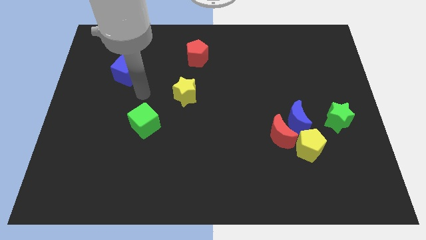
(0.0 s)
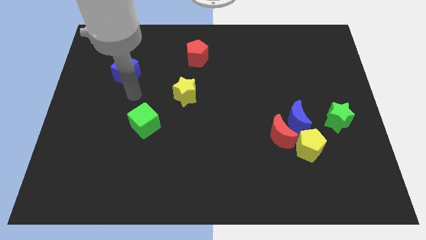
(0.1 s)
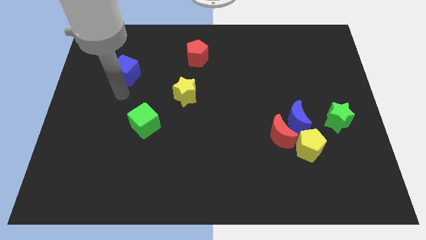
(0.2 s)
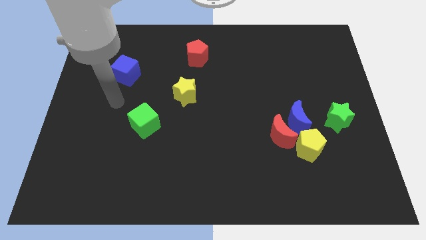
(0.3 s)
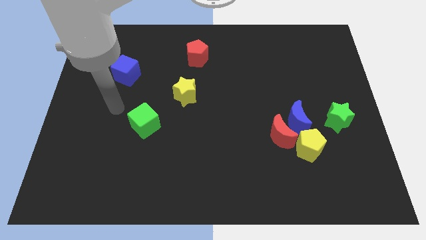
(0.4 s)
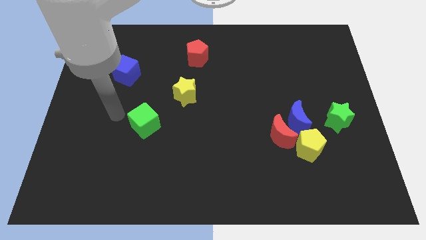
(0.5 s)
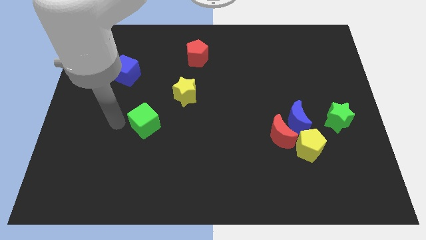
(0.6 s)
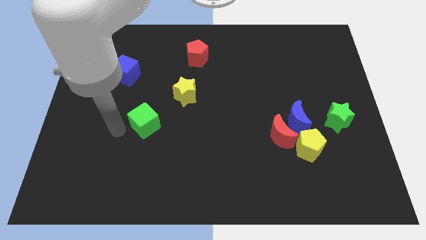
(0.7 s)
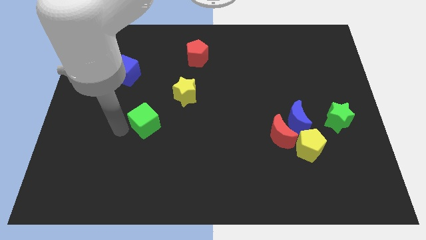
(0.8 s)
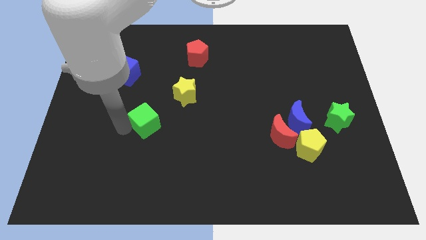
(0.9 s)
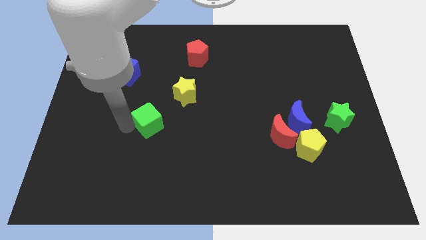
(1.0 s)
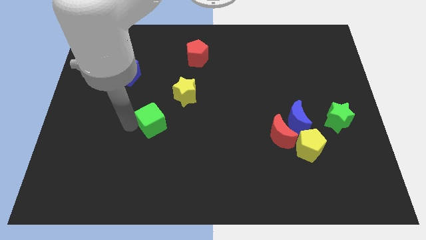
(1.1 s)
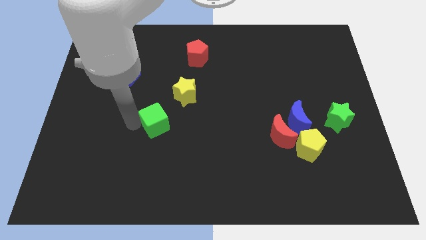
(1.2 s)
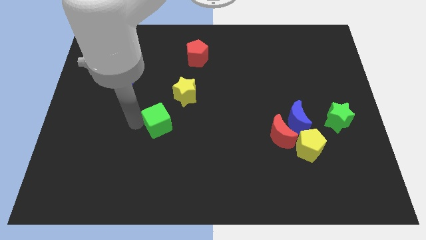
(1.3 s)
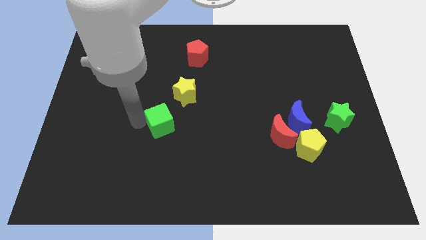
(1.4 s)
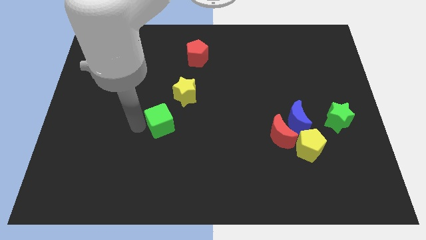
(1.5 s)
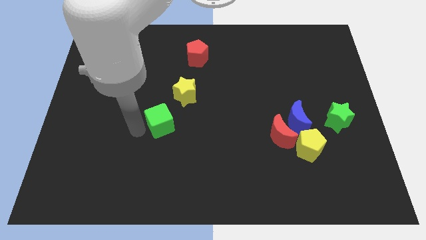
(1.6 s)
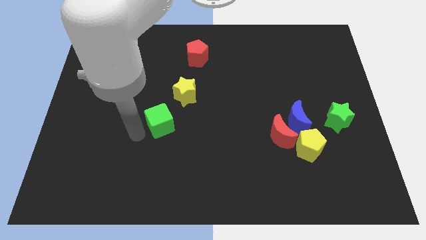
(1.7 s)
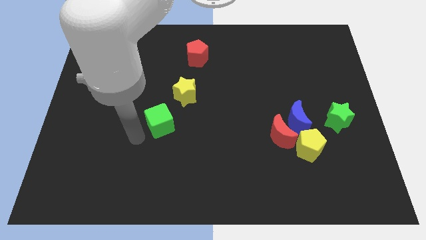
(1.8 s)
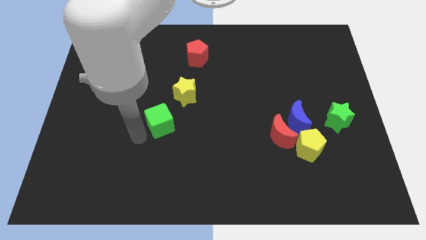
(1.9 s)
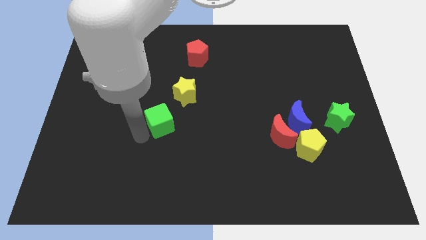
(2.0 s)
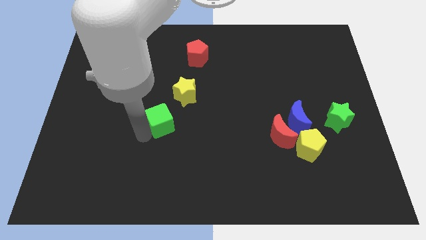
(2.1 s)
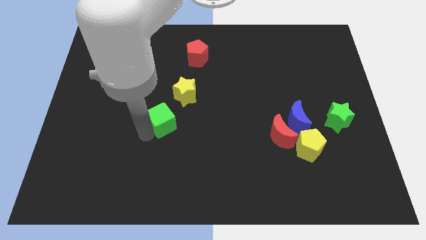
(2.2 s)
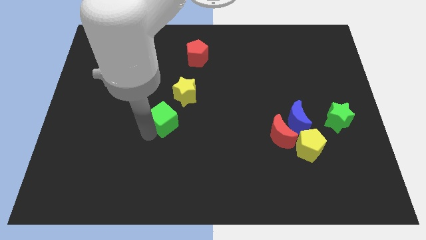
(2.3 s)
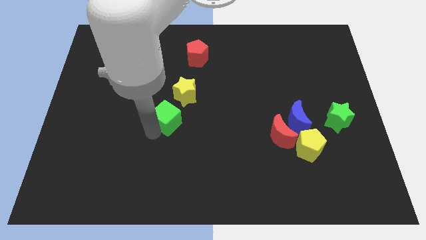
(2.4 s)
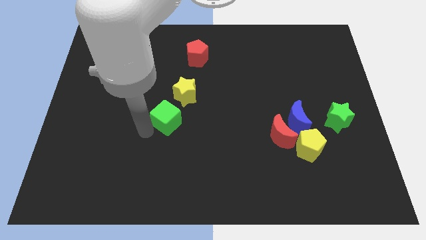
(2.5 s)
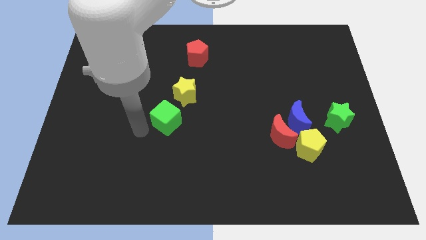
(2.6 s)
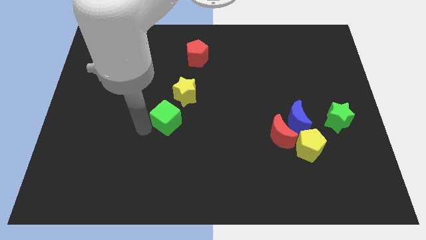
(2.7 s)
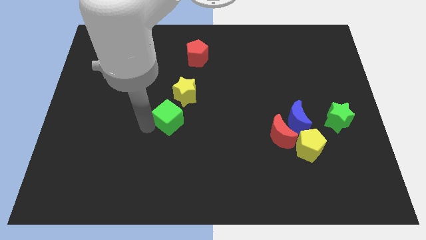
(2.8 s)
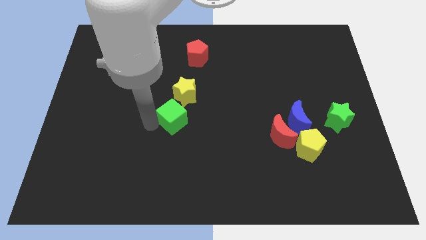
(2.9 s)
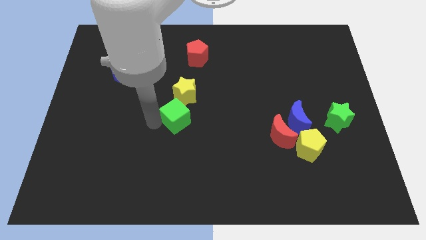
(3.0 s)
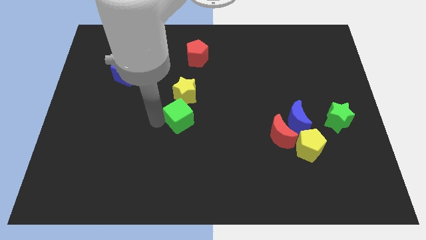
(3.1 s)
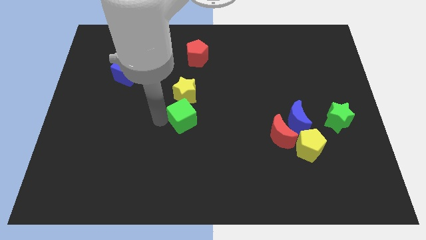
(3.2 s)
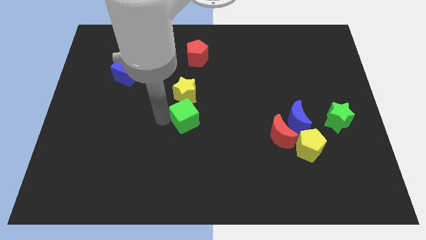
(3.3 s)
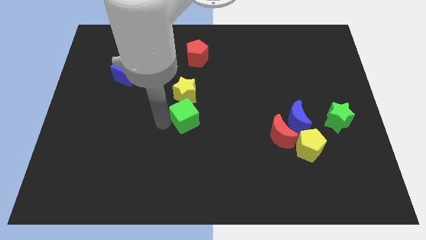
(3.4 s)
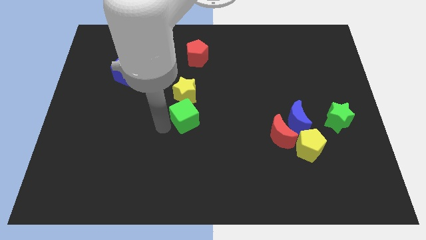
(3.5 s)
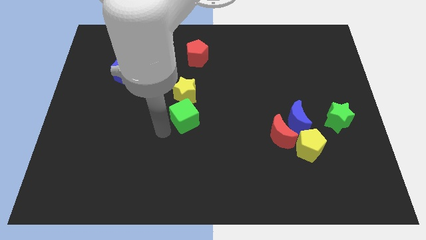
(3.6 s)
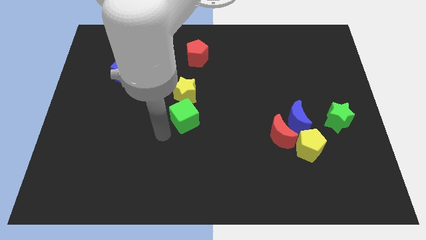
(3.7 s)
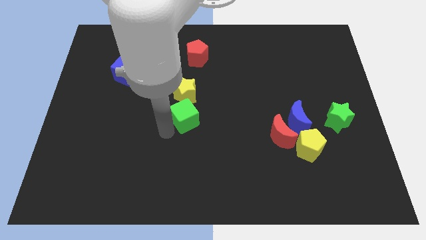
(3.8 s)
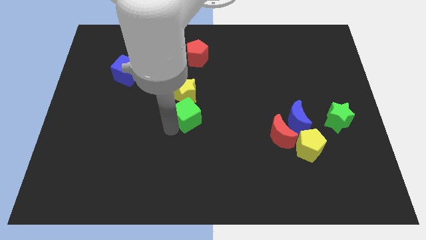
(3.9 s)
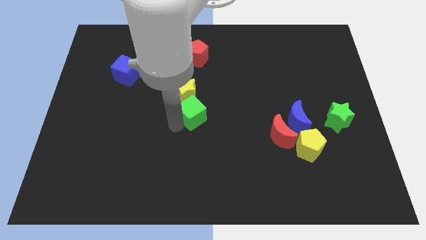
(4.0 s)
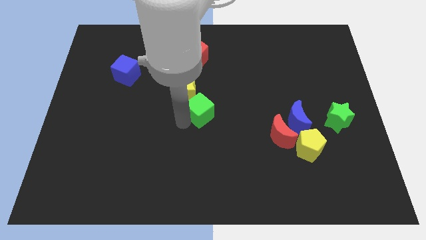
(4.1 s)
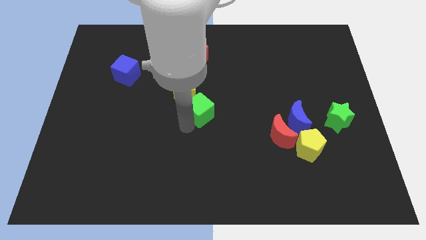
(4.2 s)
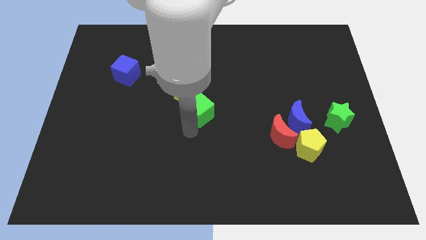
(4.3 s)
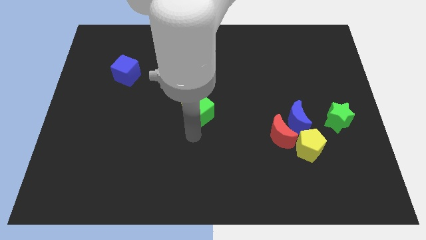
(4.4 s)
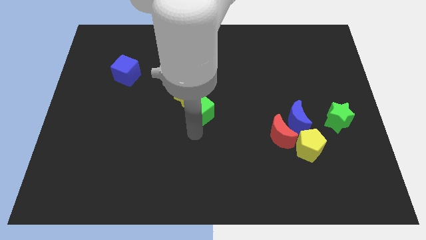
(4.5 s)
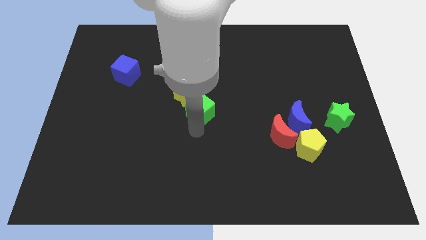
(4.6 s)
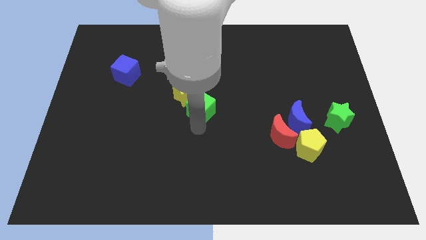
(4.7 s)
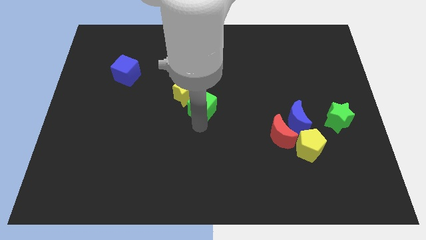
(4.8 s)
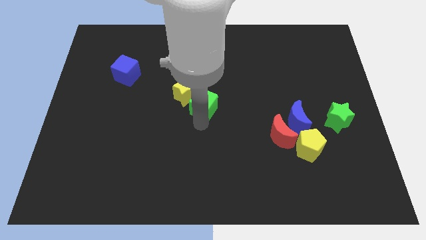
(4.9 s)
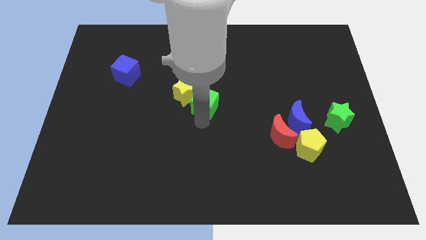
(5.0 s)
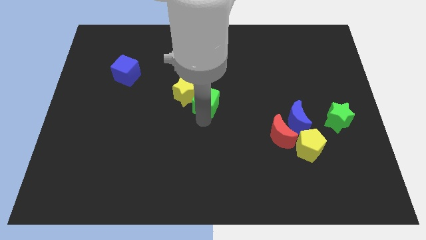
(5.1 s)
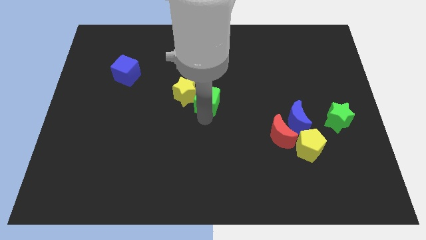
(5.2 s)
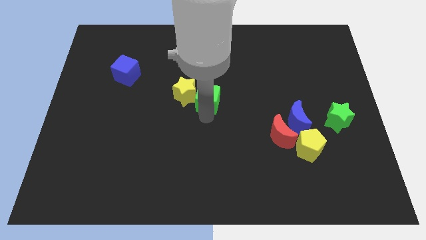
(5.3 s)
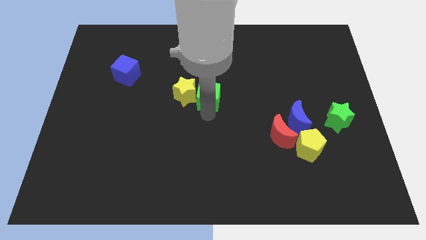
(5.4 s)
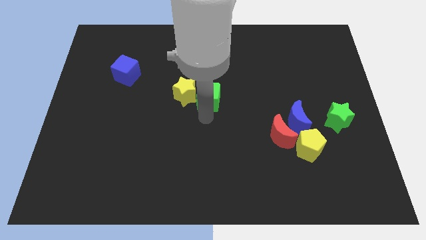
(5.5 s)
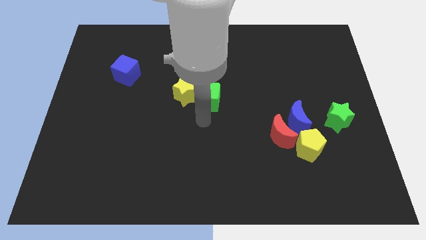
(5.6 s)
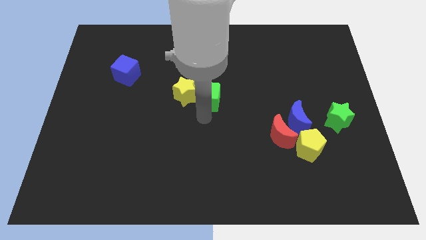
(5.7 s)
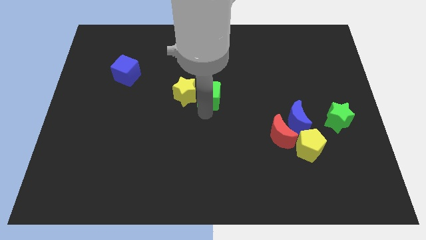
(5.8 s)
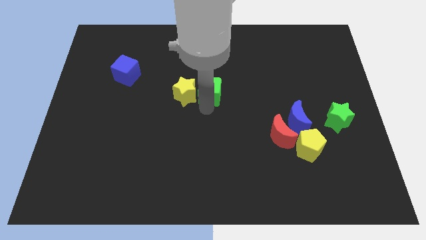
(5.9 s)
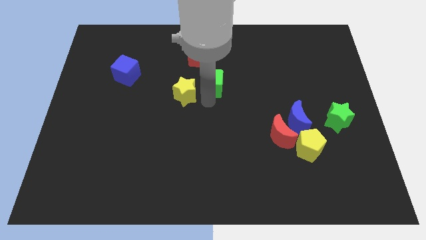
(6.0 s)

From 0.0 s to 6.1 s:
move the green cube diagonally down and to the right of the red pentagon

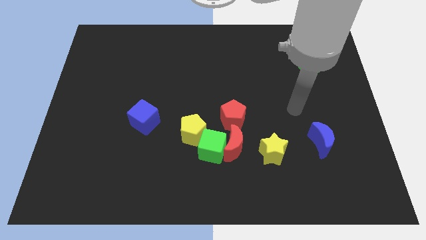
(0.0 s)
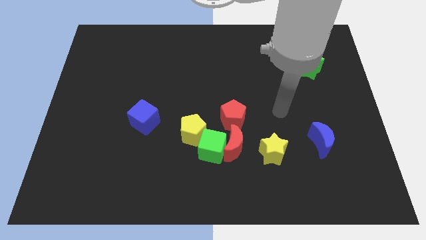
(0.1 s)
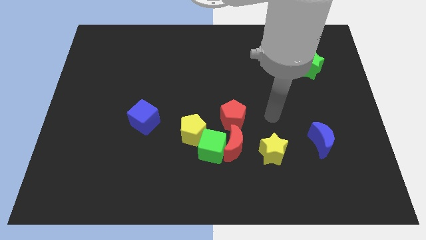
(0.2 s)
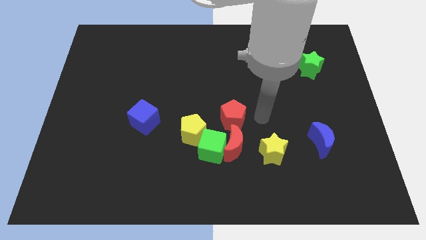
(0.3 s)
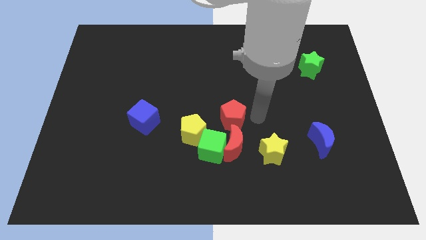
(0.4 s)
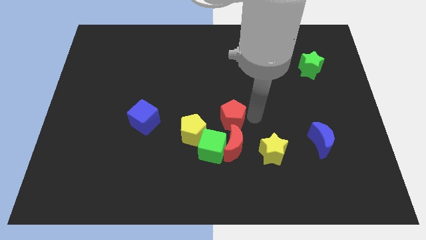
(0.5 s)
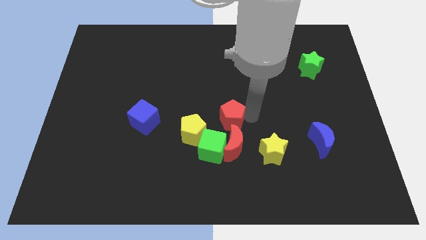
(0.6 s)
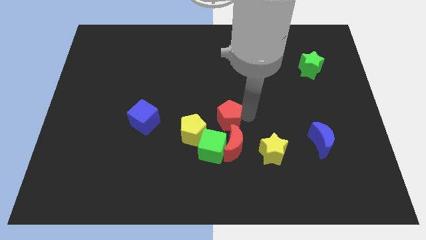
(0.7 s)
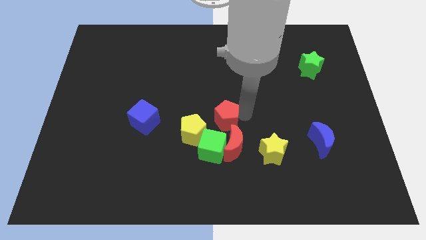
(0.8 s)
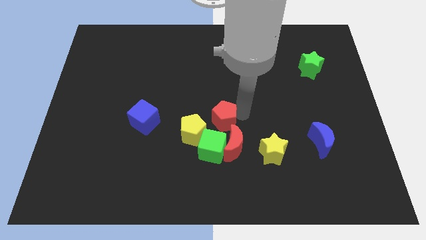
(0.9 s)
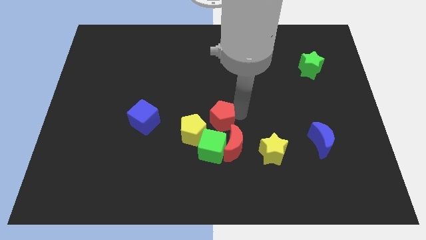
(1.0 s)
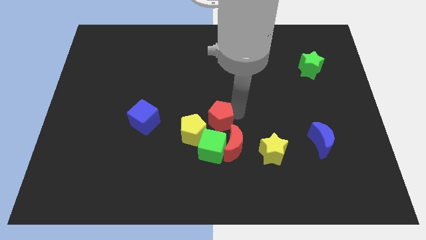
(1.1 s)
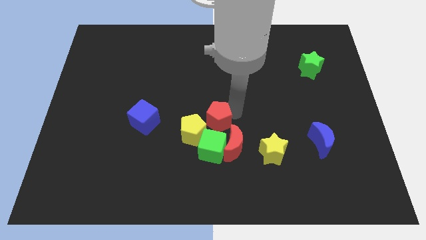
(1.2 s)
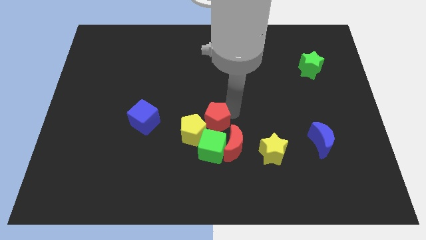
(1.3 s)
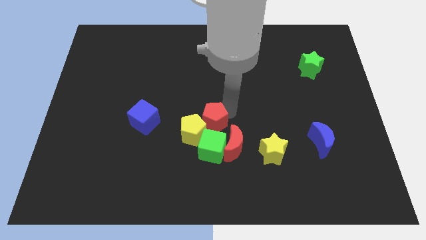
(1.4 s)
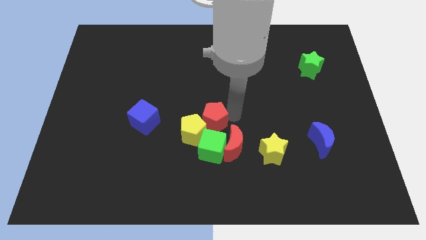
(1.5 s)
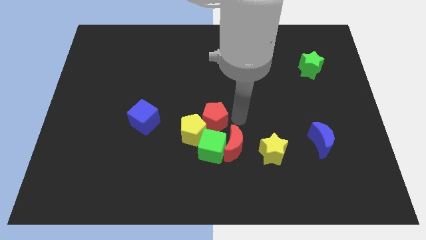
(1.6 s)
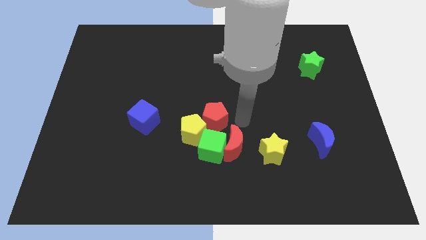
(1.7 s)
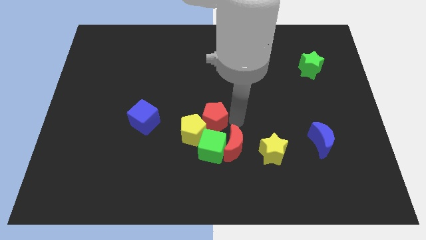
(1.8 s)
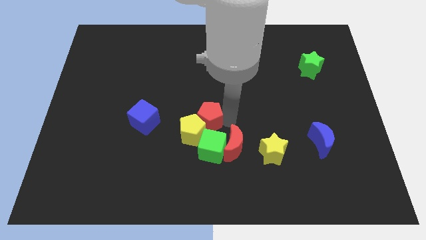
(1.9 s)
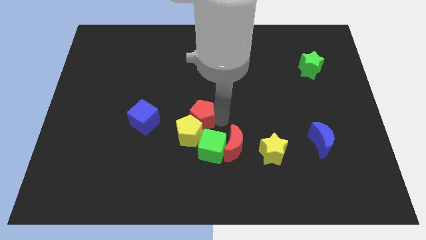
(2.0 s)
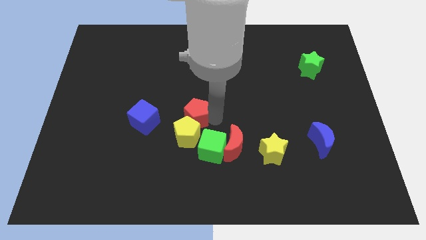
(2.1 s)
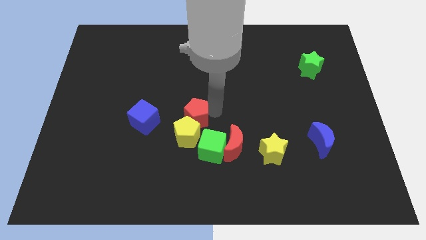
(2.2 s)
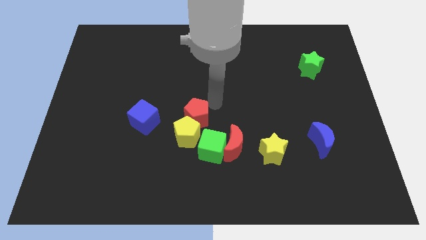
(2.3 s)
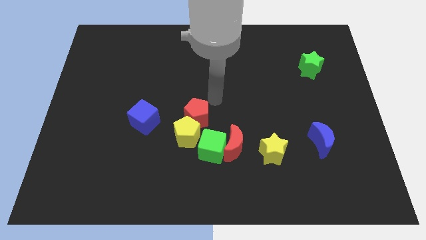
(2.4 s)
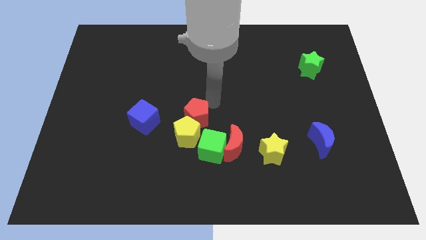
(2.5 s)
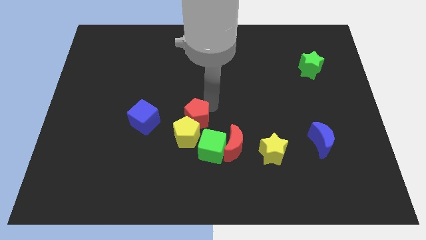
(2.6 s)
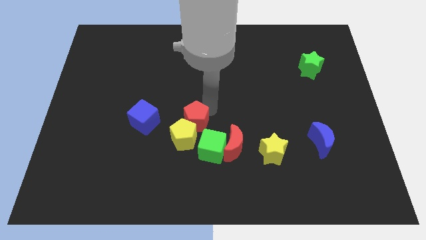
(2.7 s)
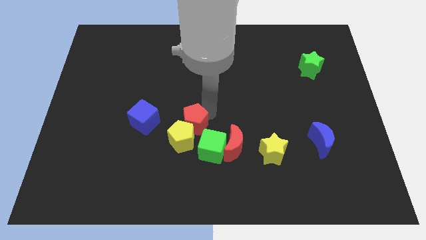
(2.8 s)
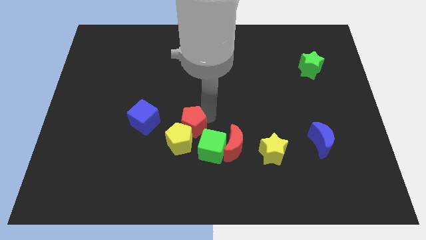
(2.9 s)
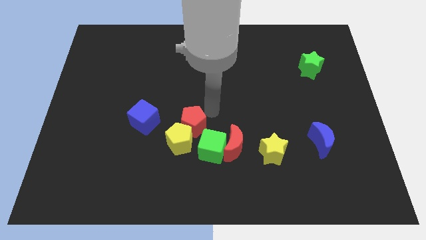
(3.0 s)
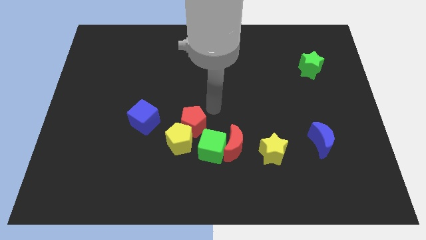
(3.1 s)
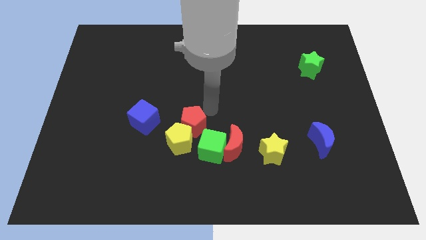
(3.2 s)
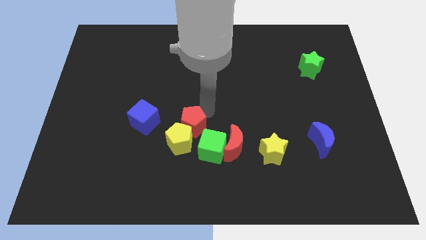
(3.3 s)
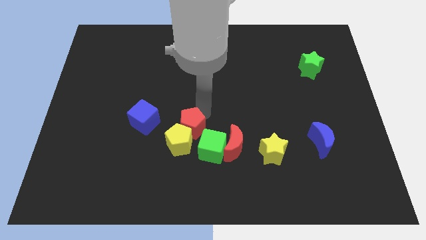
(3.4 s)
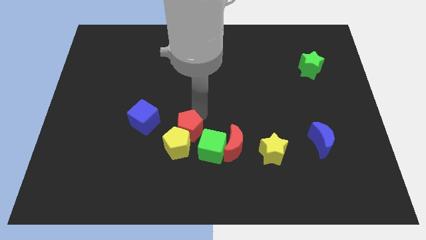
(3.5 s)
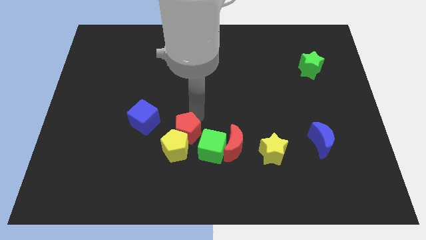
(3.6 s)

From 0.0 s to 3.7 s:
push the red pentagon just left of the green cube
